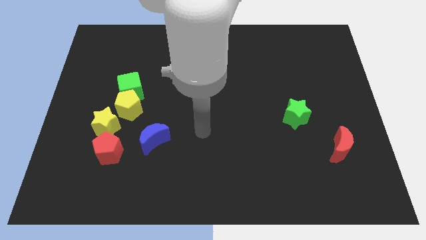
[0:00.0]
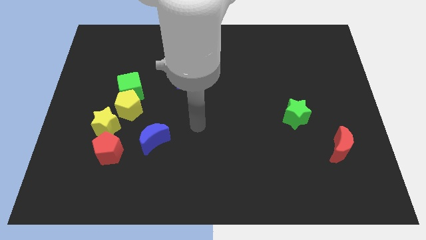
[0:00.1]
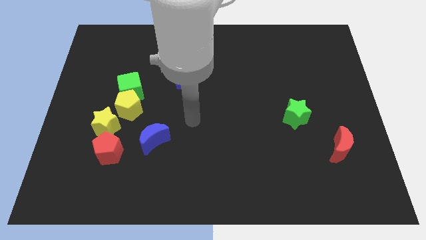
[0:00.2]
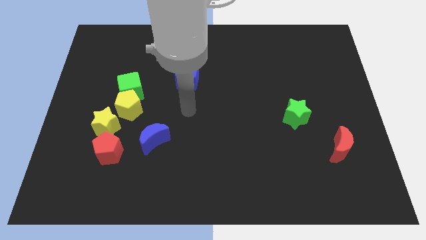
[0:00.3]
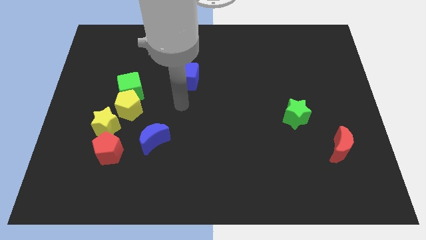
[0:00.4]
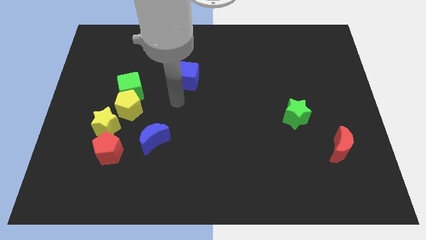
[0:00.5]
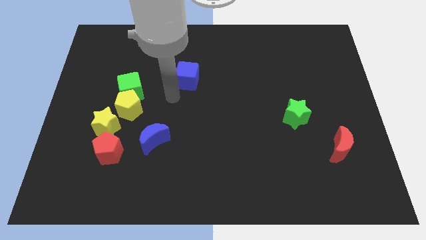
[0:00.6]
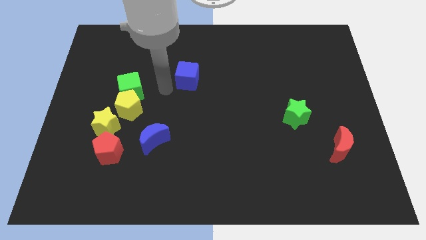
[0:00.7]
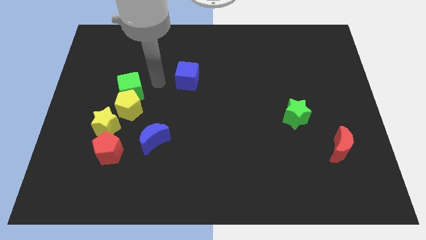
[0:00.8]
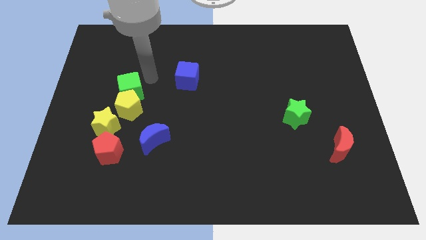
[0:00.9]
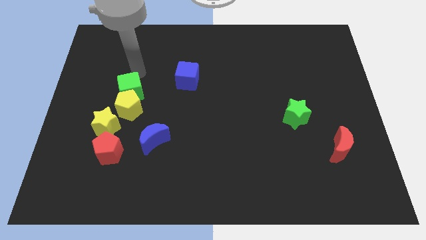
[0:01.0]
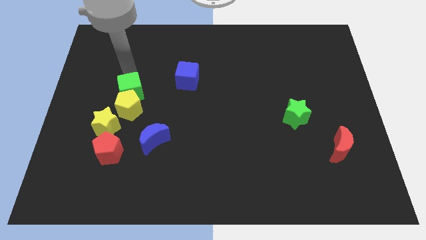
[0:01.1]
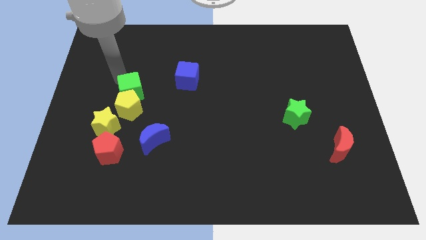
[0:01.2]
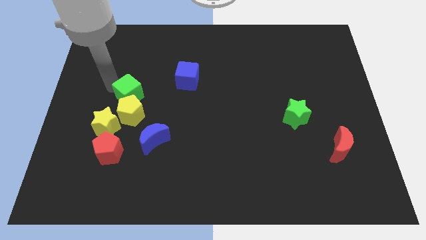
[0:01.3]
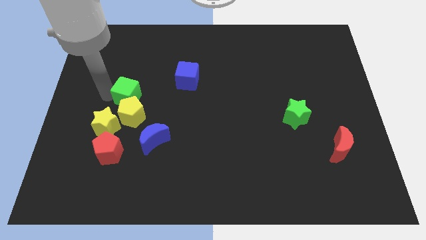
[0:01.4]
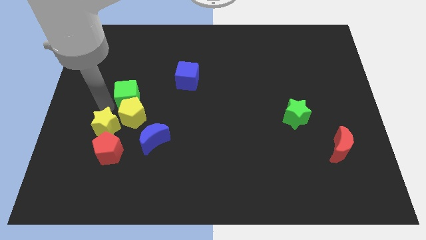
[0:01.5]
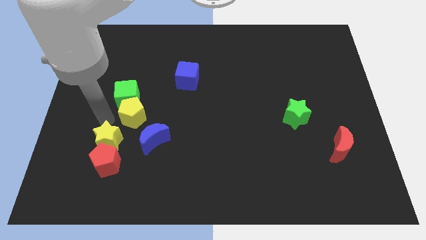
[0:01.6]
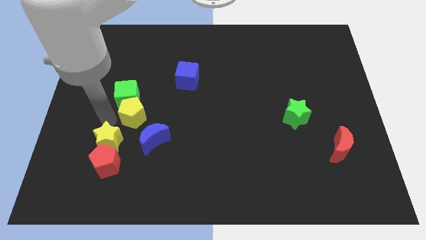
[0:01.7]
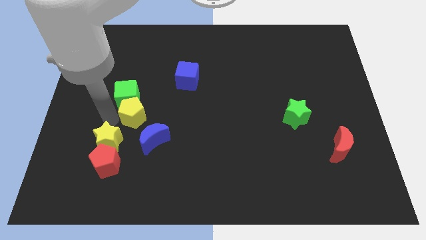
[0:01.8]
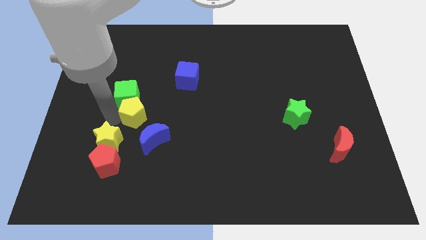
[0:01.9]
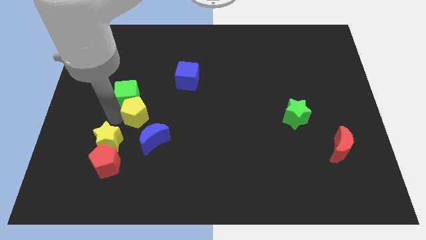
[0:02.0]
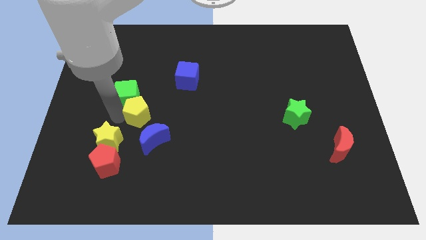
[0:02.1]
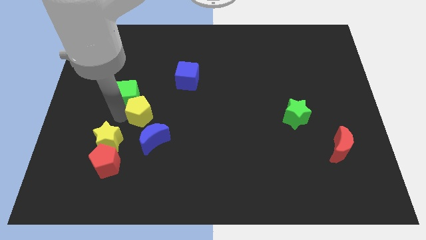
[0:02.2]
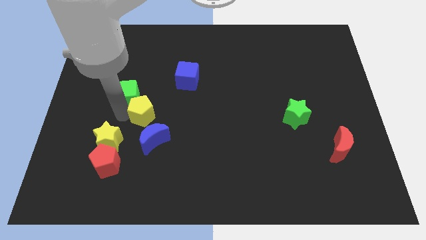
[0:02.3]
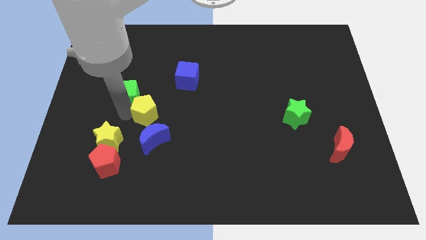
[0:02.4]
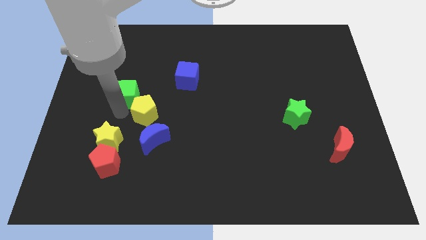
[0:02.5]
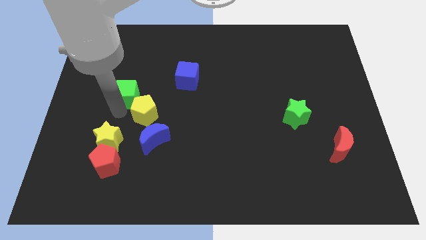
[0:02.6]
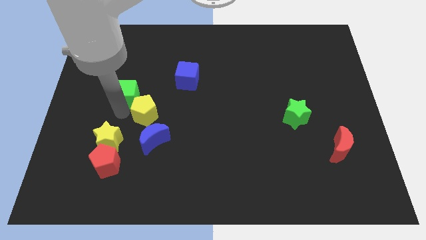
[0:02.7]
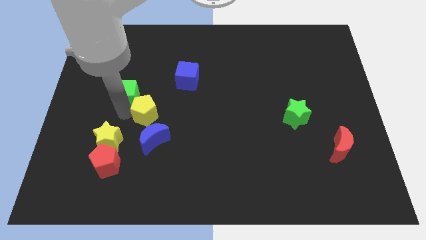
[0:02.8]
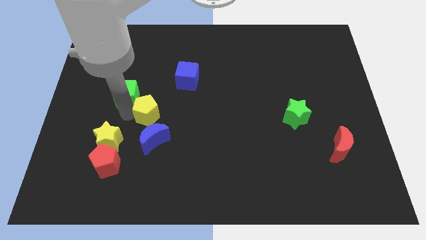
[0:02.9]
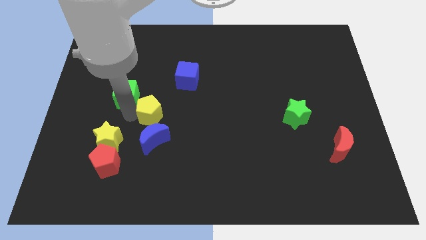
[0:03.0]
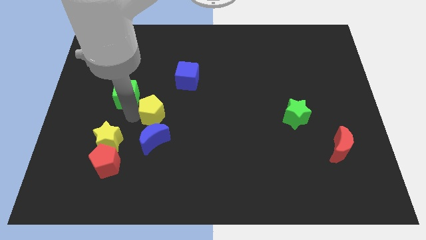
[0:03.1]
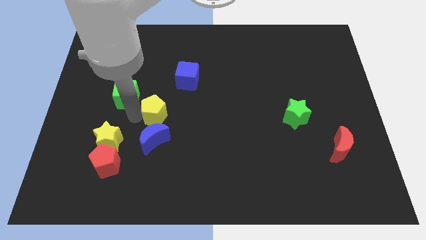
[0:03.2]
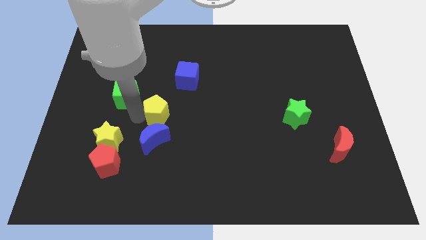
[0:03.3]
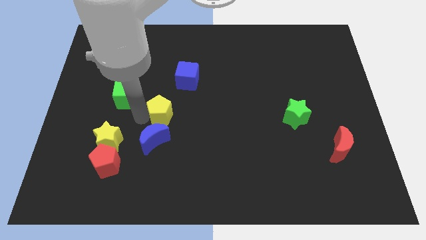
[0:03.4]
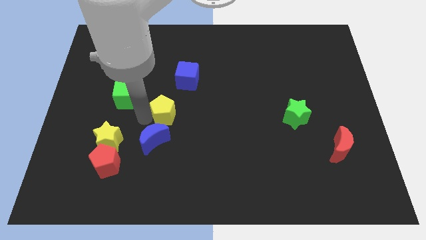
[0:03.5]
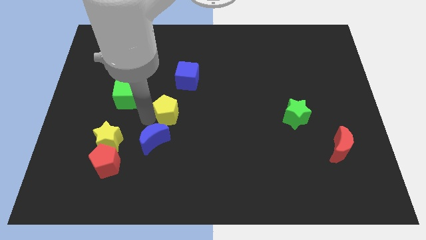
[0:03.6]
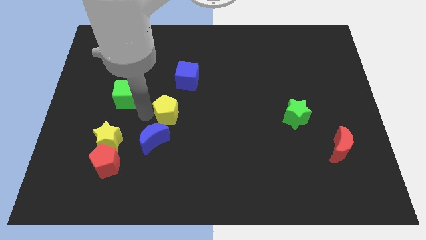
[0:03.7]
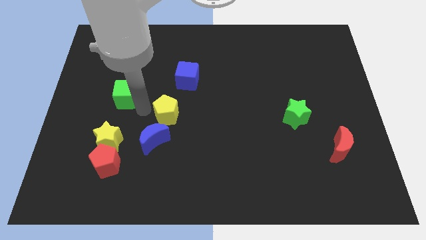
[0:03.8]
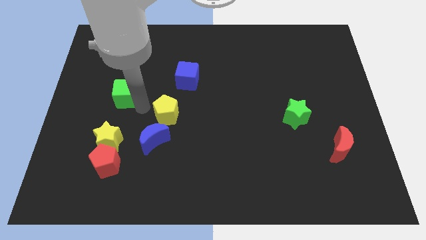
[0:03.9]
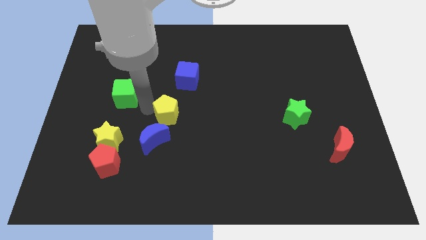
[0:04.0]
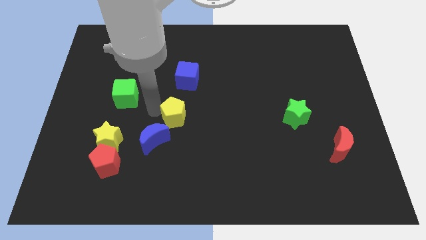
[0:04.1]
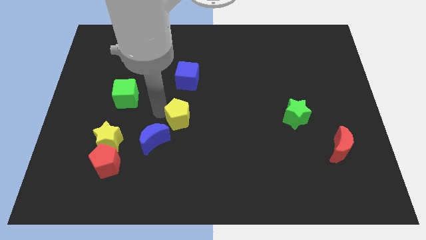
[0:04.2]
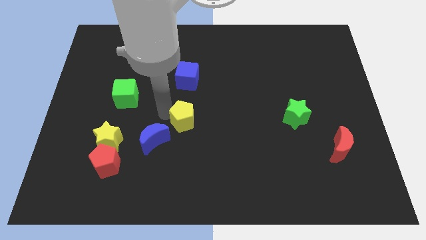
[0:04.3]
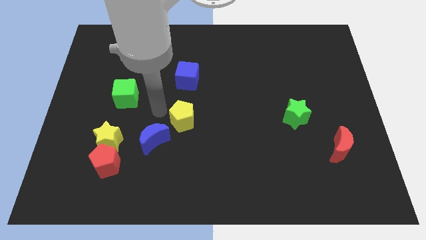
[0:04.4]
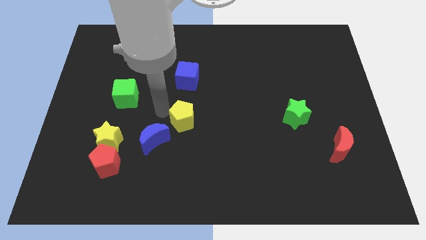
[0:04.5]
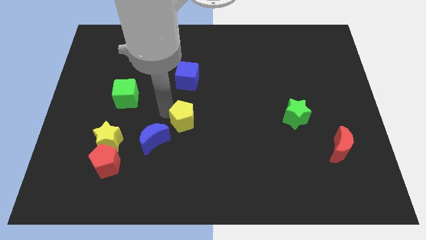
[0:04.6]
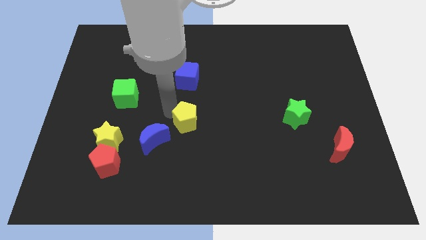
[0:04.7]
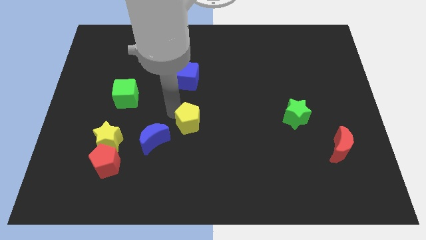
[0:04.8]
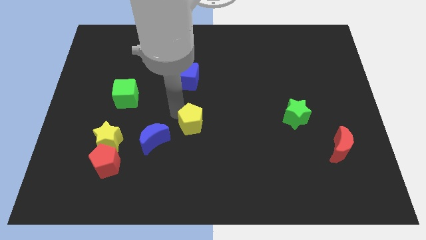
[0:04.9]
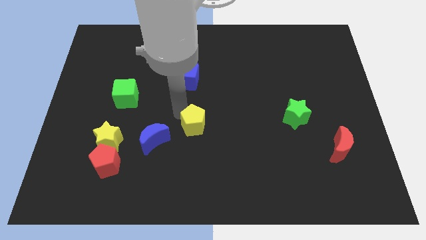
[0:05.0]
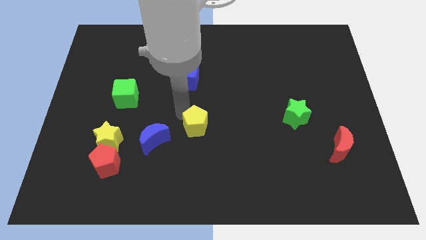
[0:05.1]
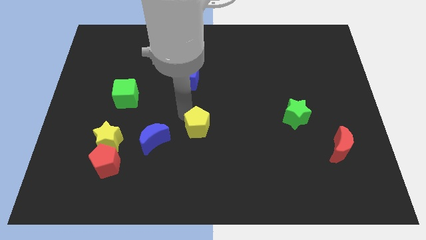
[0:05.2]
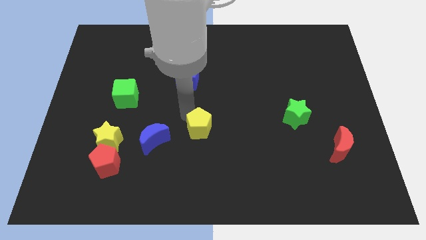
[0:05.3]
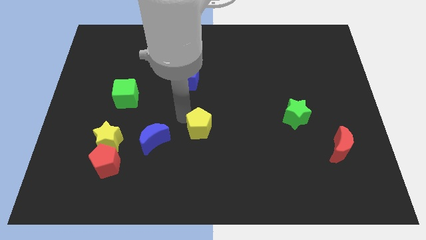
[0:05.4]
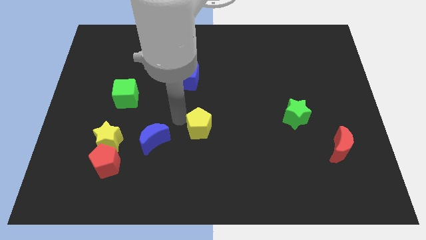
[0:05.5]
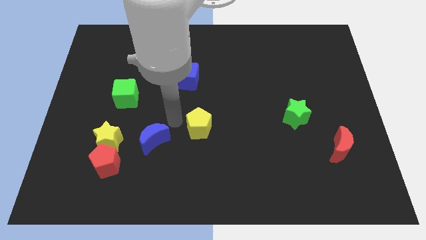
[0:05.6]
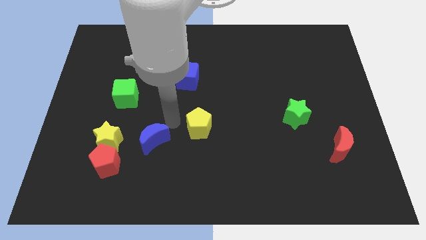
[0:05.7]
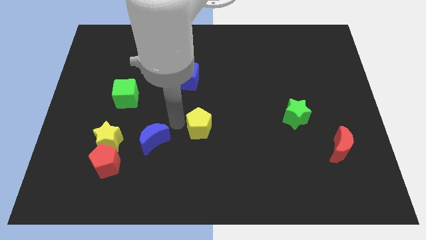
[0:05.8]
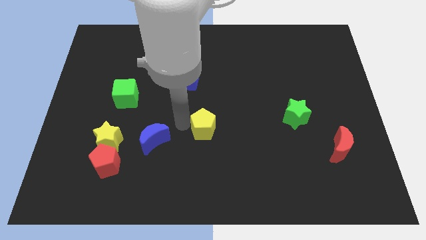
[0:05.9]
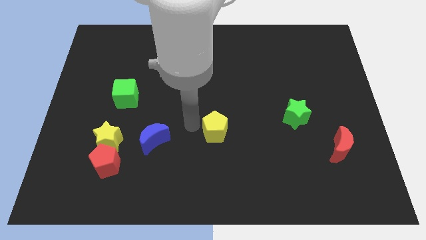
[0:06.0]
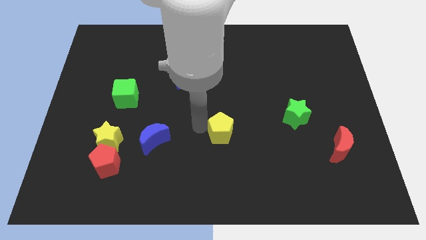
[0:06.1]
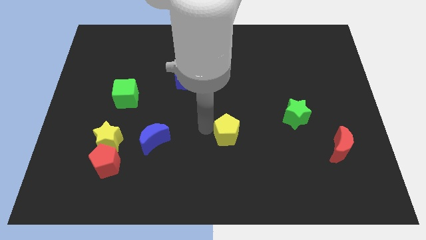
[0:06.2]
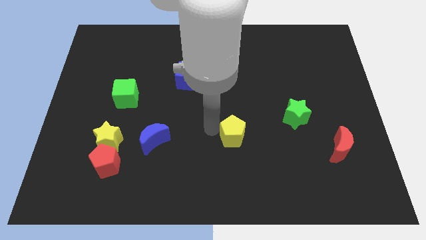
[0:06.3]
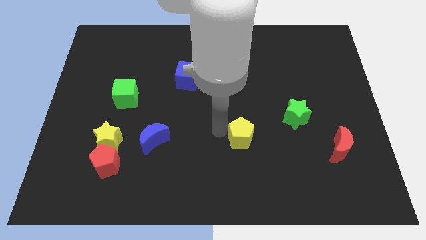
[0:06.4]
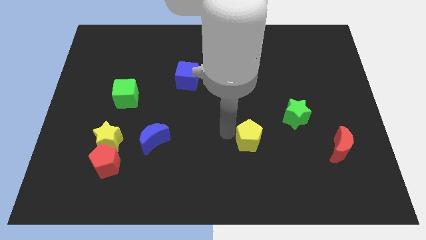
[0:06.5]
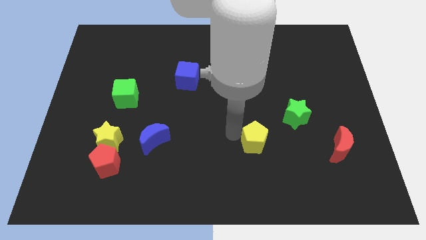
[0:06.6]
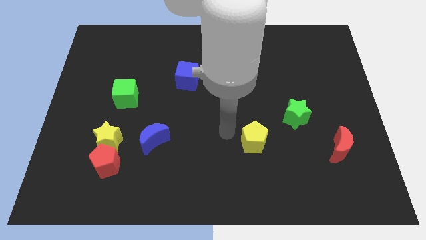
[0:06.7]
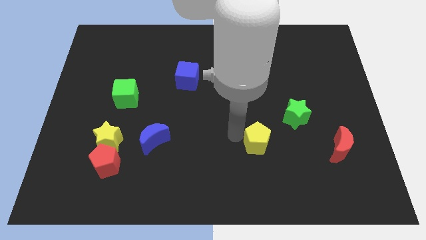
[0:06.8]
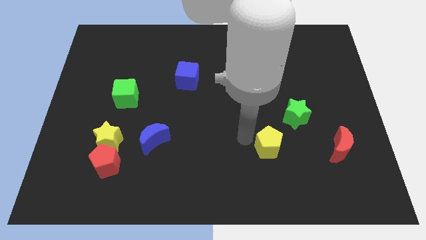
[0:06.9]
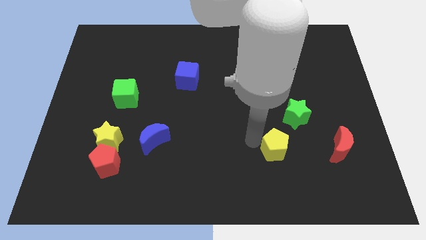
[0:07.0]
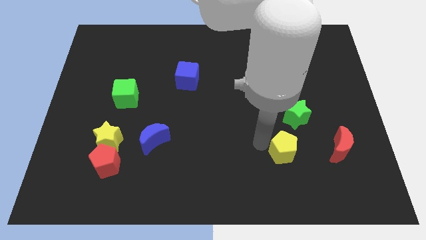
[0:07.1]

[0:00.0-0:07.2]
move the yellow pentagon to the bottom side of the green star
